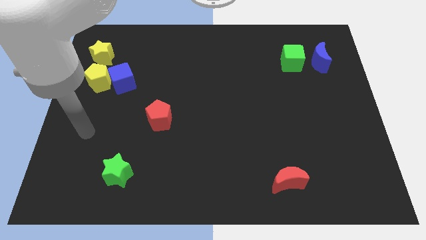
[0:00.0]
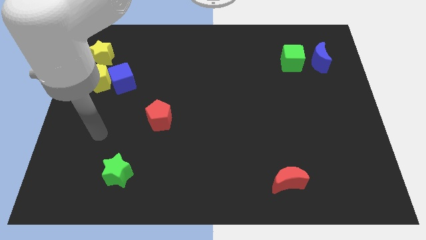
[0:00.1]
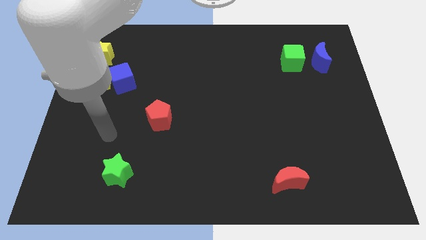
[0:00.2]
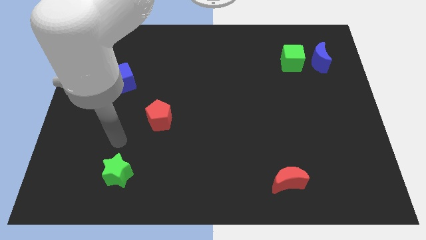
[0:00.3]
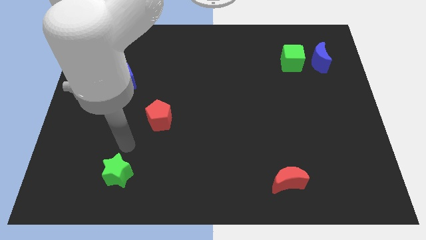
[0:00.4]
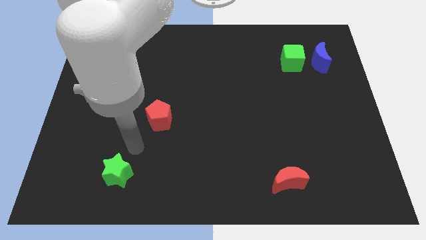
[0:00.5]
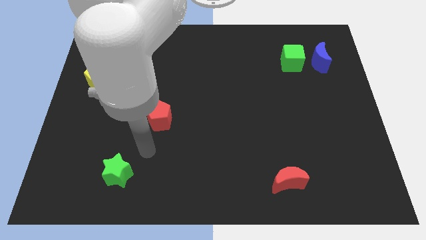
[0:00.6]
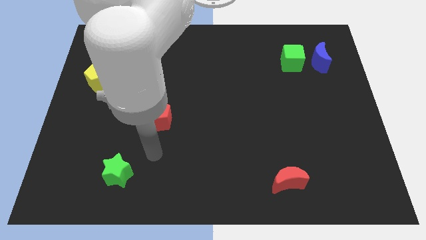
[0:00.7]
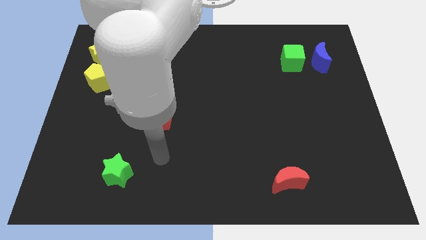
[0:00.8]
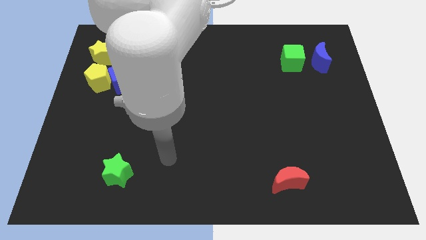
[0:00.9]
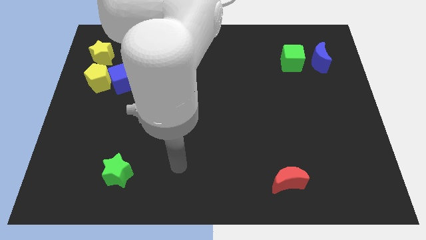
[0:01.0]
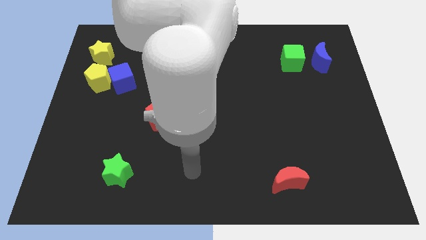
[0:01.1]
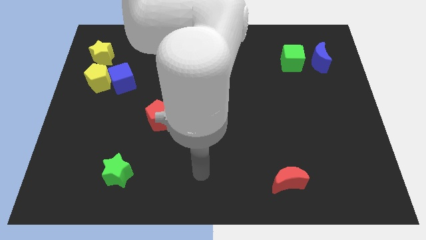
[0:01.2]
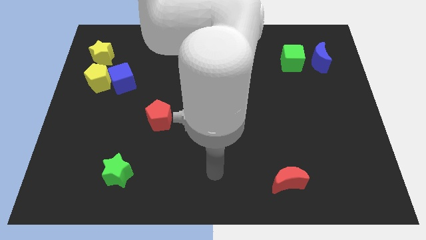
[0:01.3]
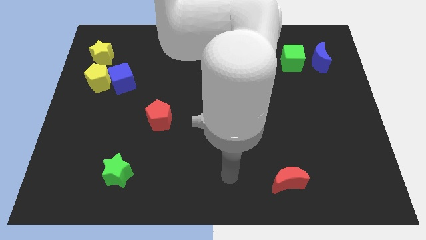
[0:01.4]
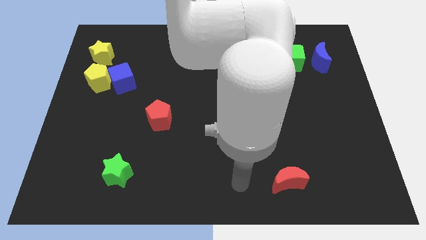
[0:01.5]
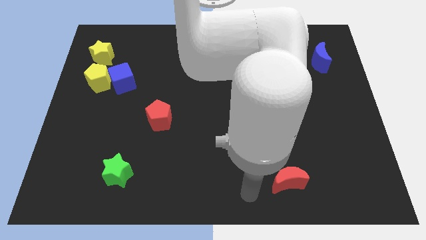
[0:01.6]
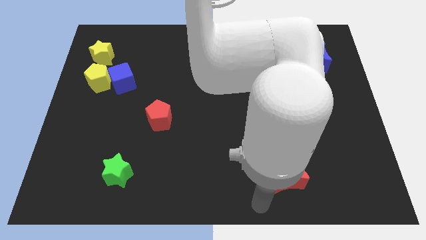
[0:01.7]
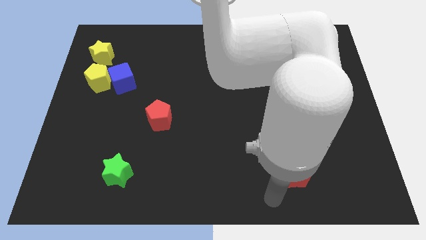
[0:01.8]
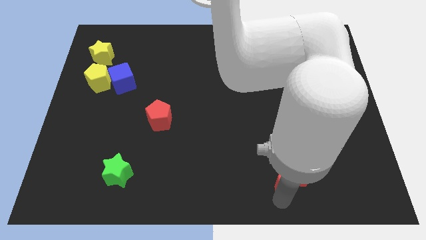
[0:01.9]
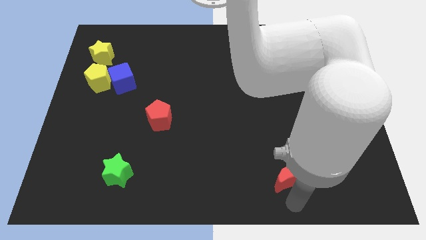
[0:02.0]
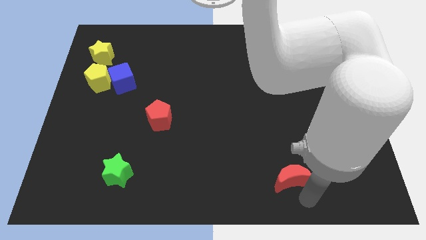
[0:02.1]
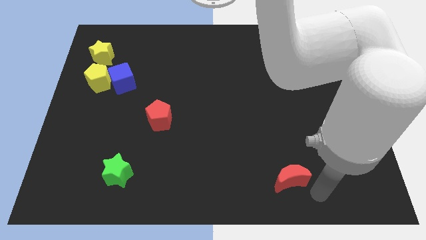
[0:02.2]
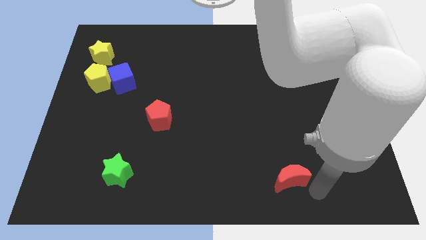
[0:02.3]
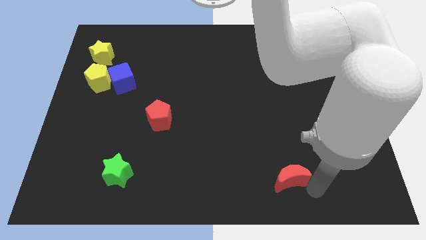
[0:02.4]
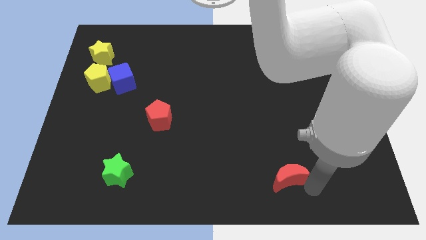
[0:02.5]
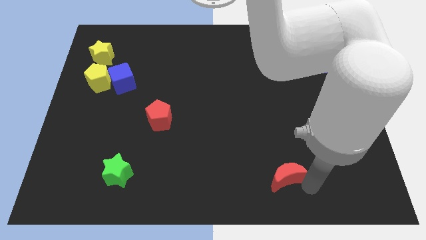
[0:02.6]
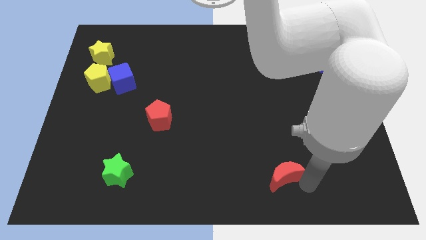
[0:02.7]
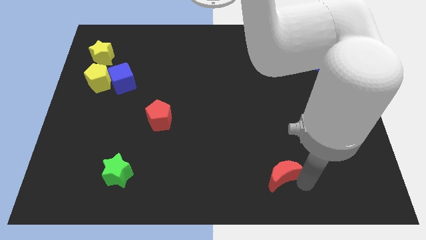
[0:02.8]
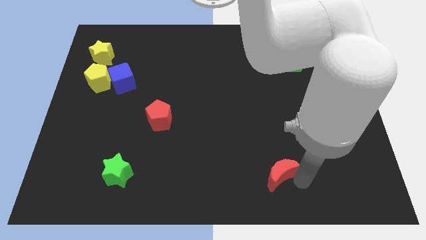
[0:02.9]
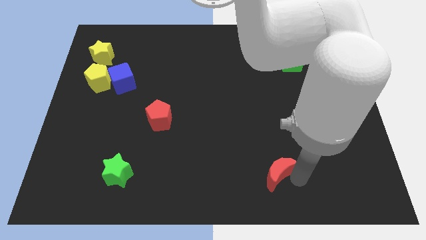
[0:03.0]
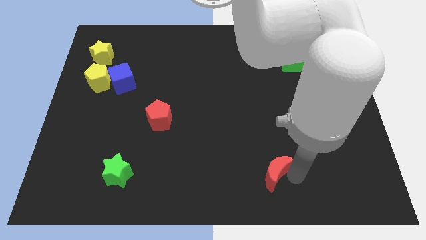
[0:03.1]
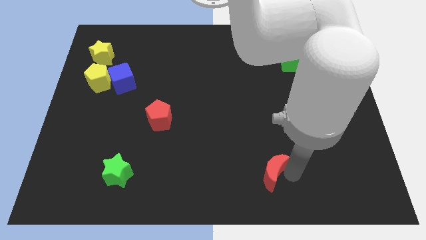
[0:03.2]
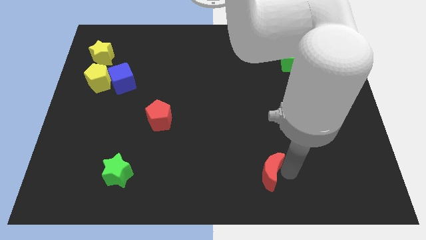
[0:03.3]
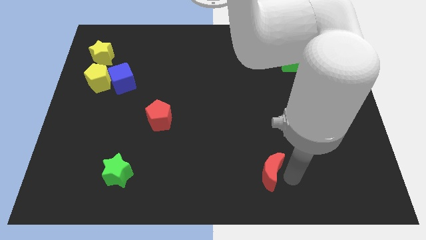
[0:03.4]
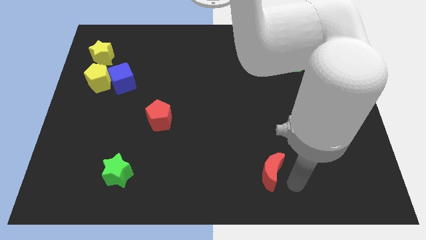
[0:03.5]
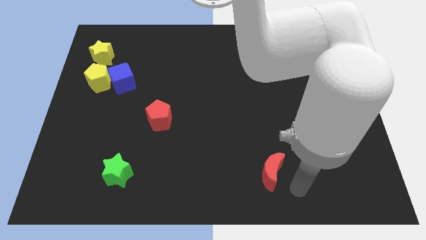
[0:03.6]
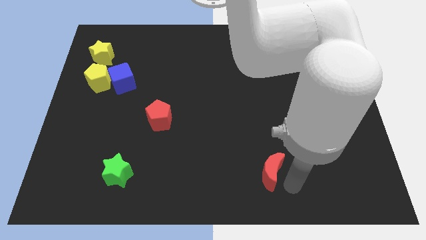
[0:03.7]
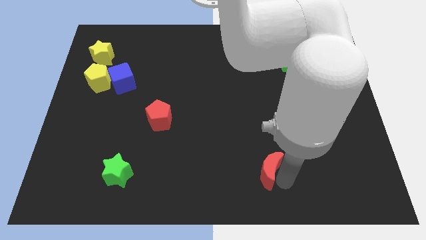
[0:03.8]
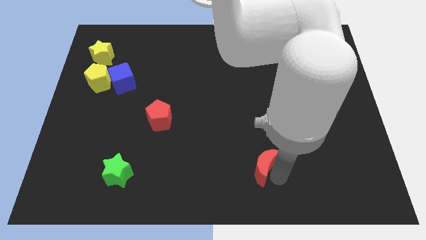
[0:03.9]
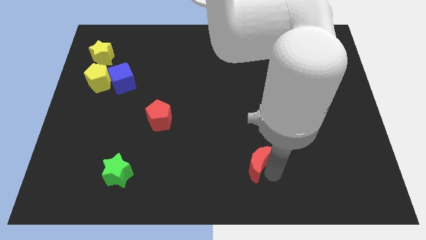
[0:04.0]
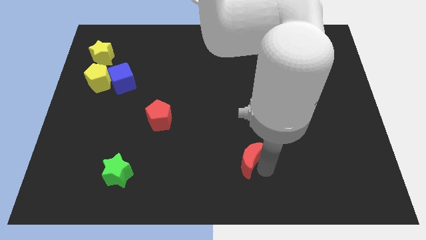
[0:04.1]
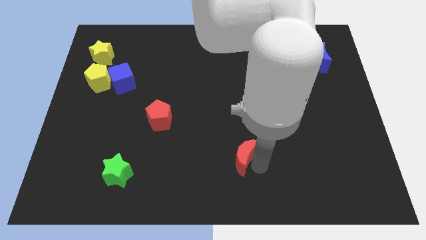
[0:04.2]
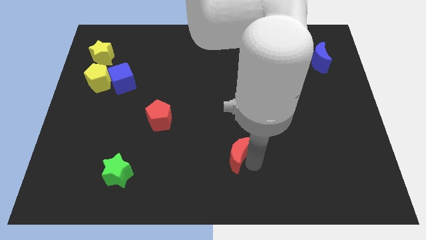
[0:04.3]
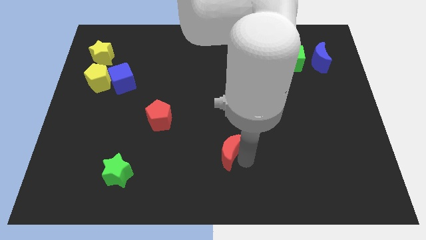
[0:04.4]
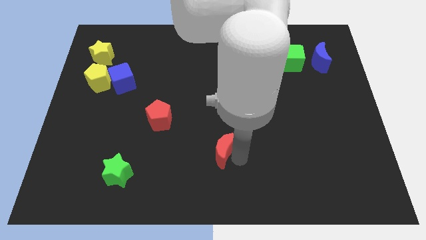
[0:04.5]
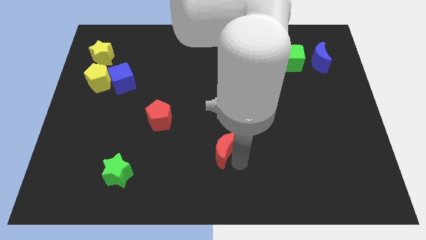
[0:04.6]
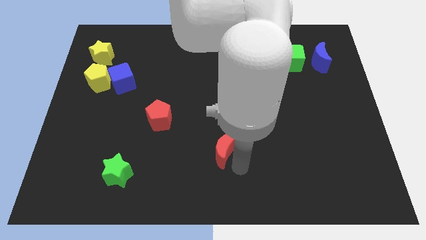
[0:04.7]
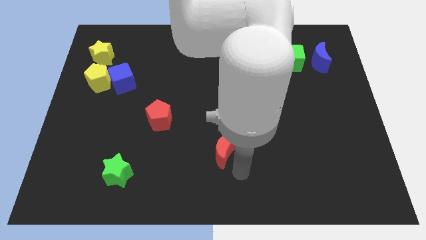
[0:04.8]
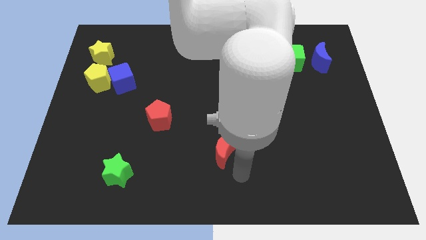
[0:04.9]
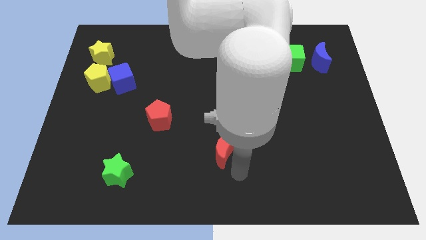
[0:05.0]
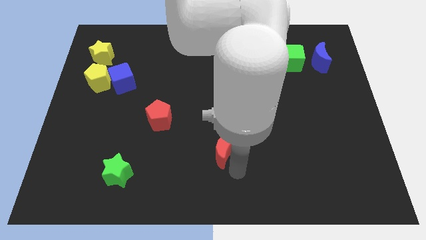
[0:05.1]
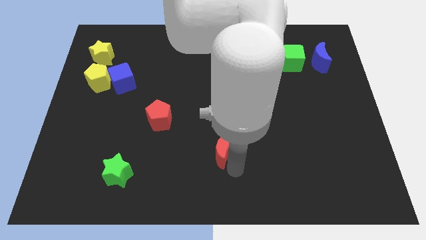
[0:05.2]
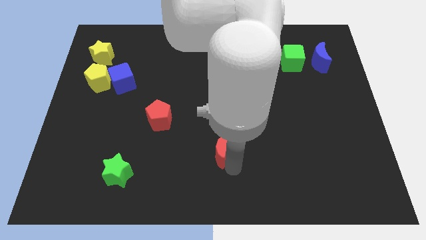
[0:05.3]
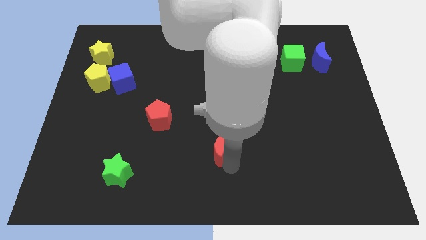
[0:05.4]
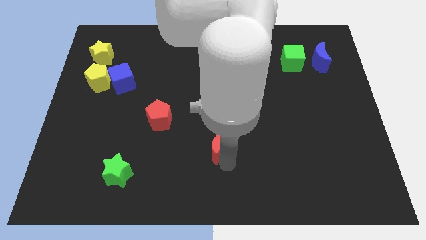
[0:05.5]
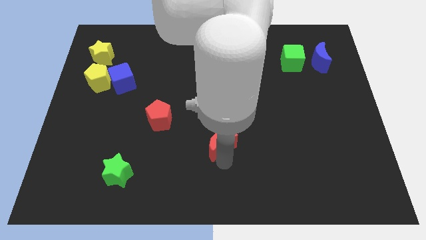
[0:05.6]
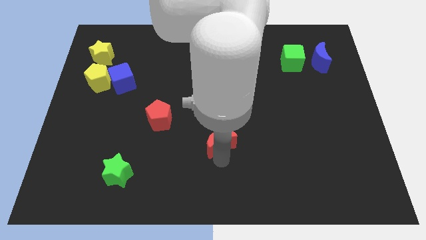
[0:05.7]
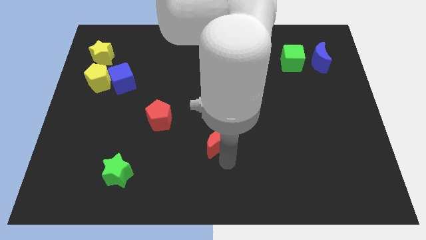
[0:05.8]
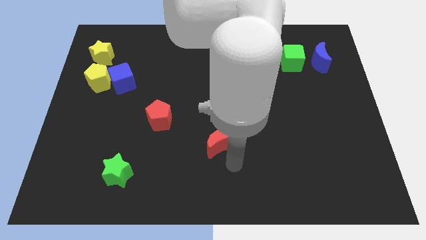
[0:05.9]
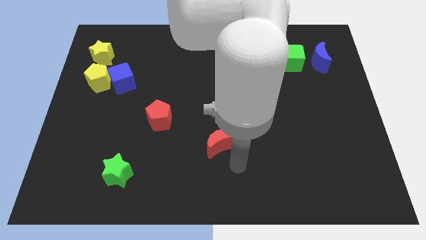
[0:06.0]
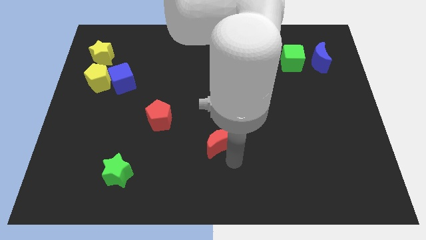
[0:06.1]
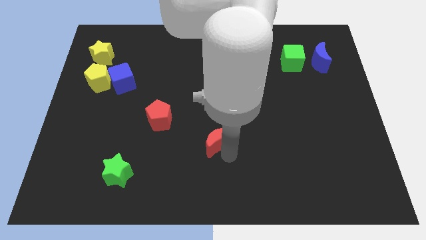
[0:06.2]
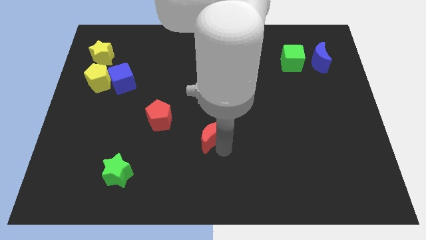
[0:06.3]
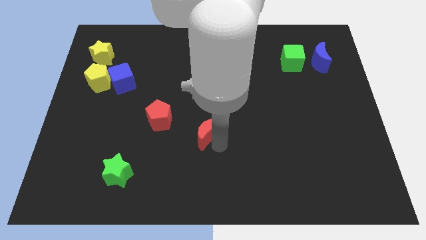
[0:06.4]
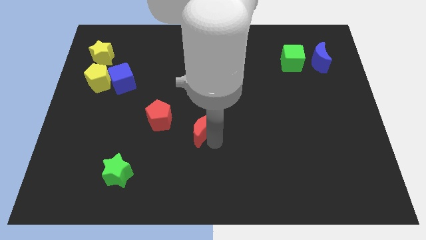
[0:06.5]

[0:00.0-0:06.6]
slide the red moon up and left

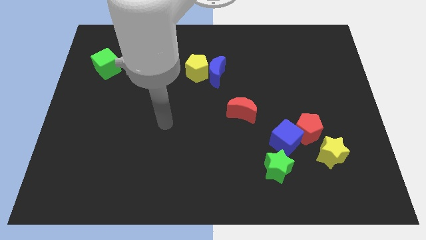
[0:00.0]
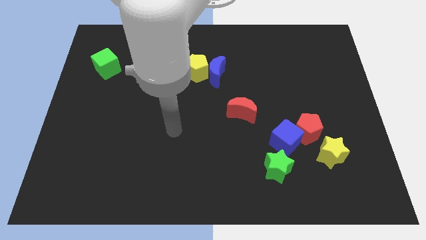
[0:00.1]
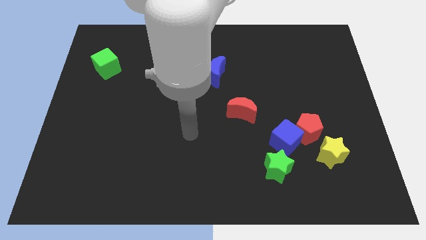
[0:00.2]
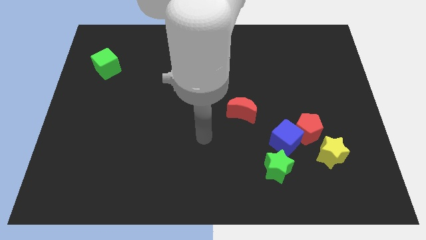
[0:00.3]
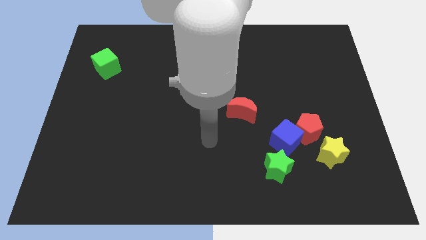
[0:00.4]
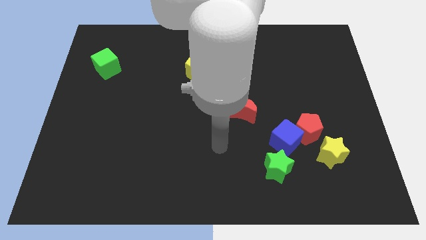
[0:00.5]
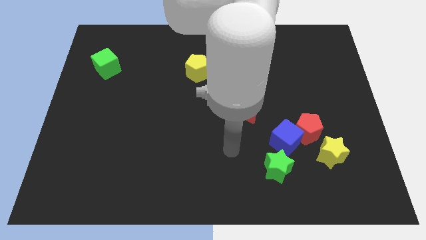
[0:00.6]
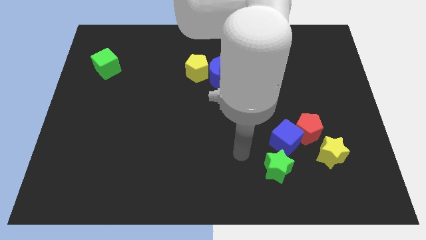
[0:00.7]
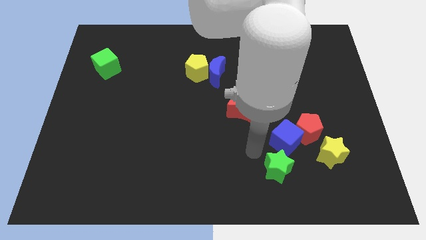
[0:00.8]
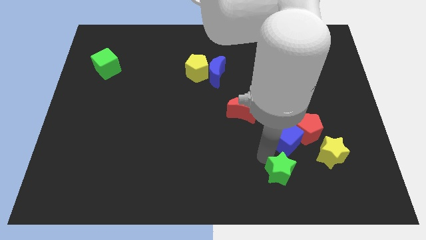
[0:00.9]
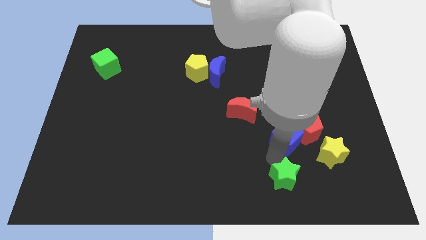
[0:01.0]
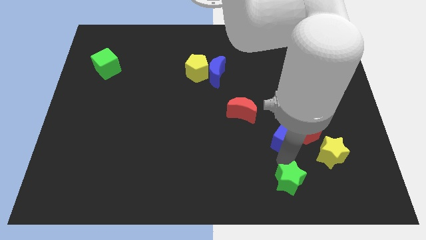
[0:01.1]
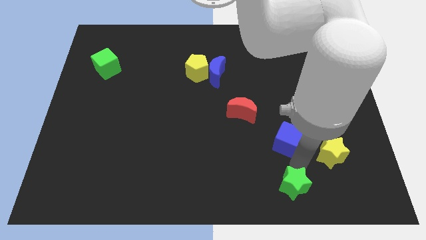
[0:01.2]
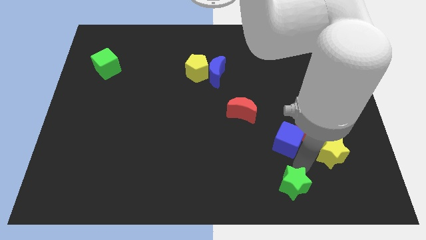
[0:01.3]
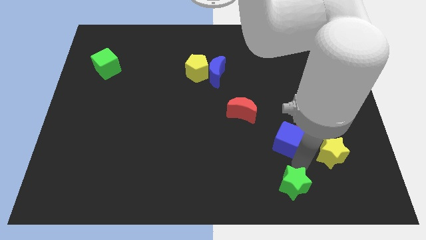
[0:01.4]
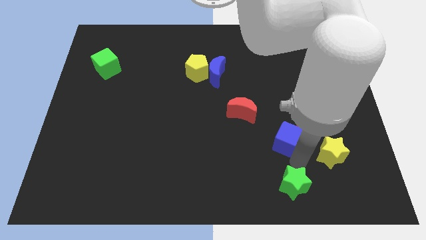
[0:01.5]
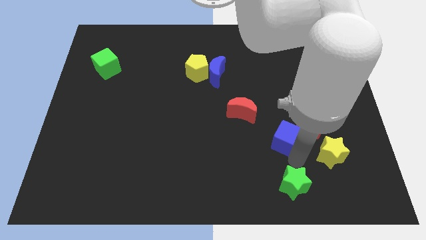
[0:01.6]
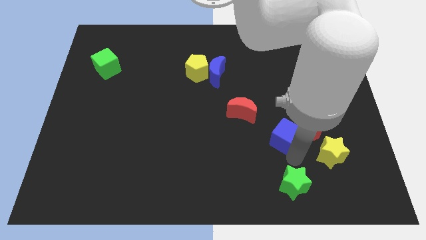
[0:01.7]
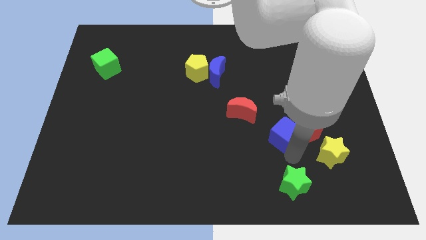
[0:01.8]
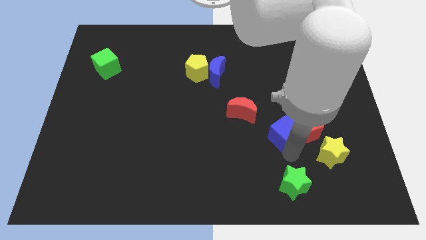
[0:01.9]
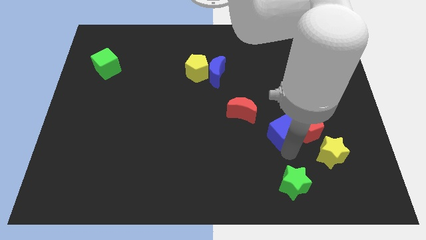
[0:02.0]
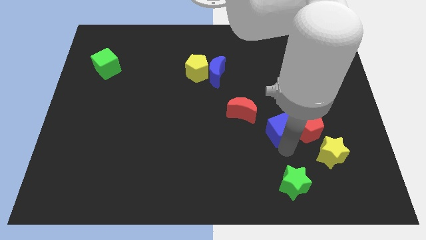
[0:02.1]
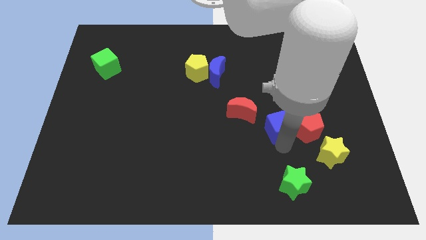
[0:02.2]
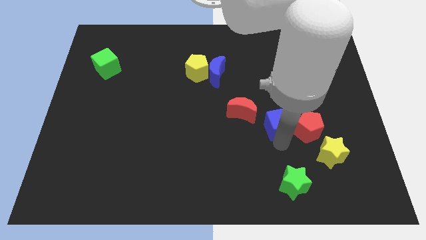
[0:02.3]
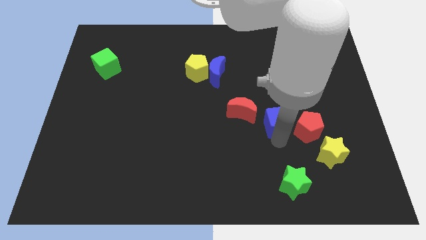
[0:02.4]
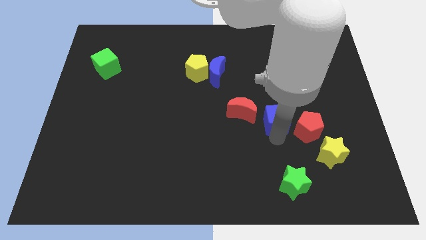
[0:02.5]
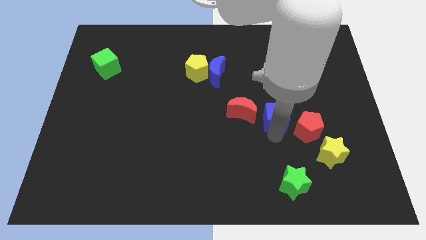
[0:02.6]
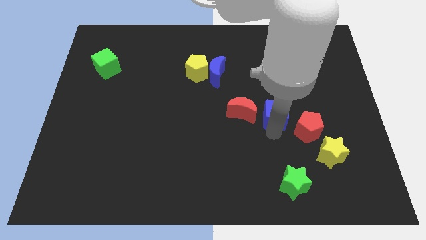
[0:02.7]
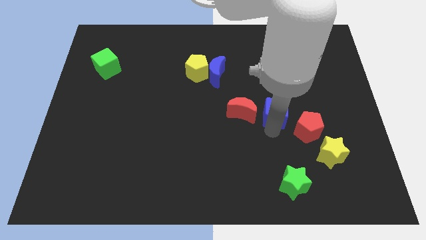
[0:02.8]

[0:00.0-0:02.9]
slightly slide the blue cube up
